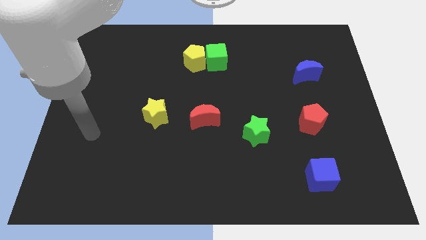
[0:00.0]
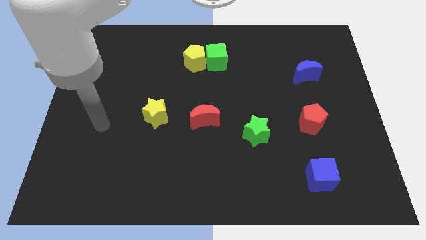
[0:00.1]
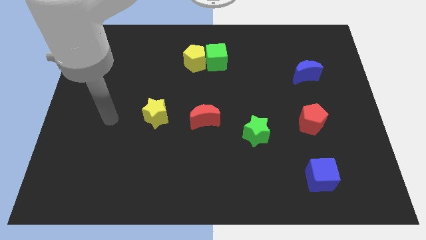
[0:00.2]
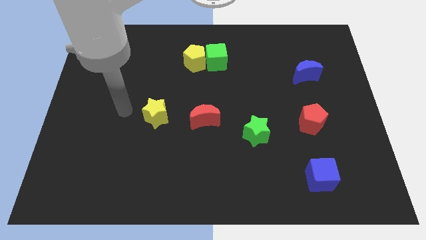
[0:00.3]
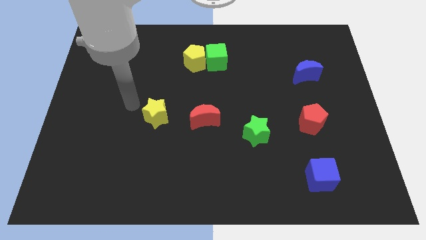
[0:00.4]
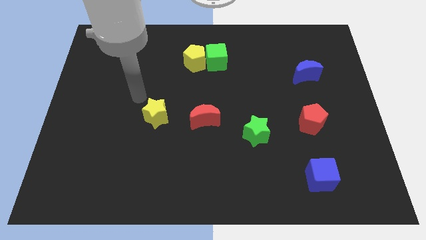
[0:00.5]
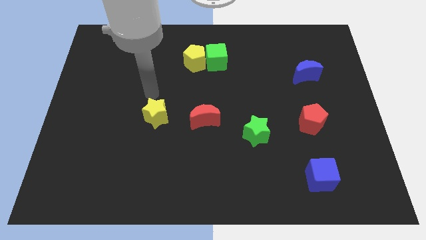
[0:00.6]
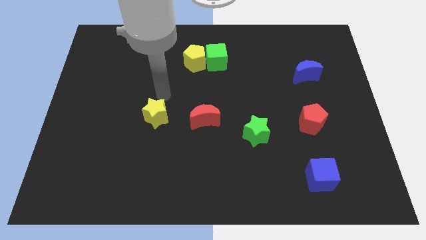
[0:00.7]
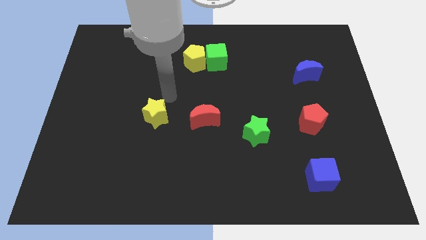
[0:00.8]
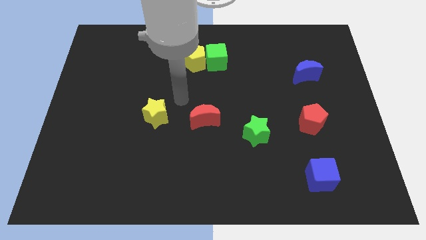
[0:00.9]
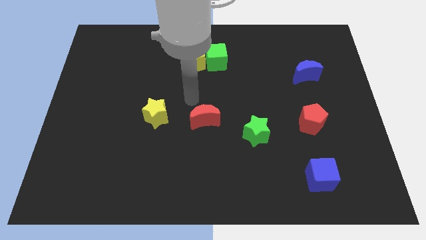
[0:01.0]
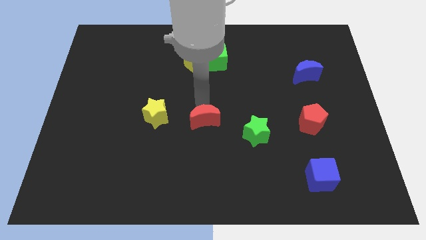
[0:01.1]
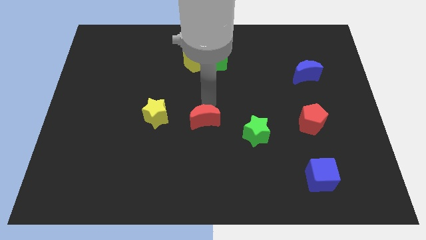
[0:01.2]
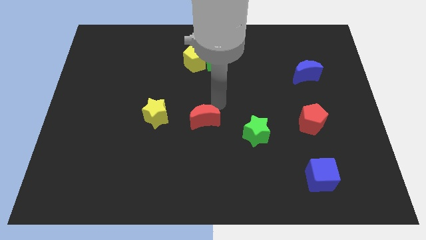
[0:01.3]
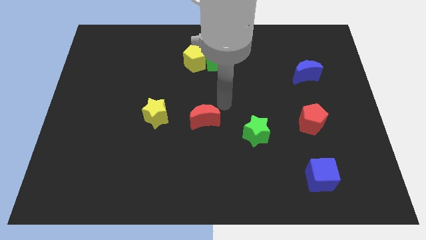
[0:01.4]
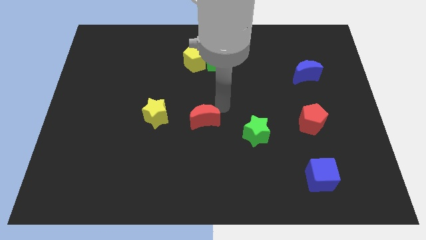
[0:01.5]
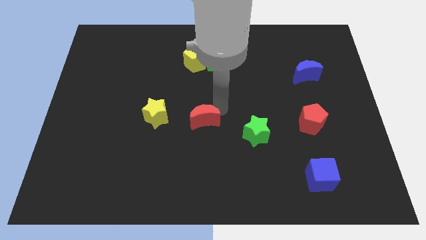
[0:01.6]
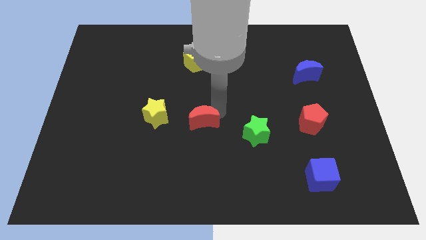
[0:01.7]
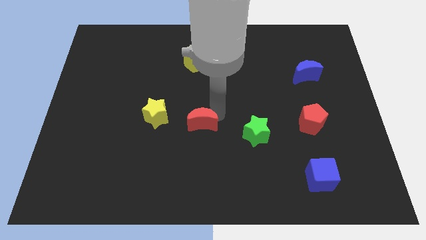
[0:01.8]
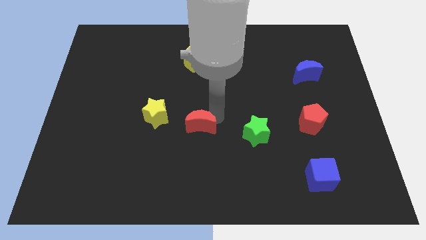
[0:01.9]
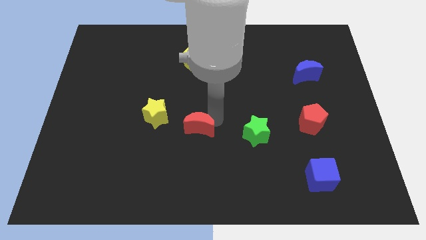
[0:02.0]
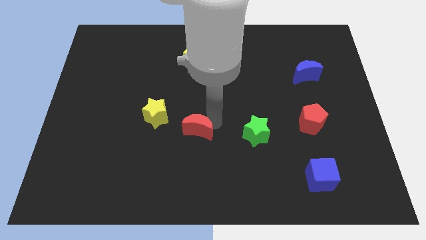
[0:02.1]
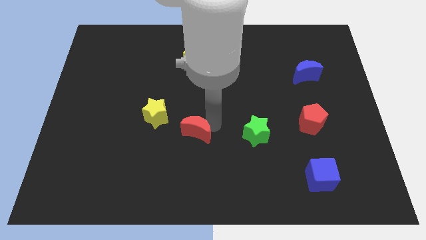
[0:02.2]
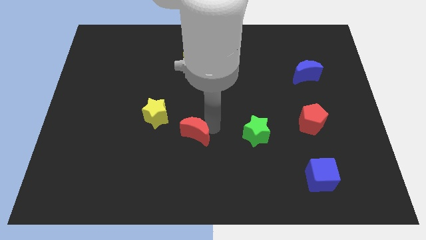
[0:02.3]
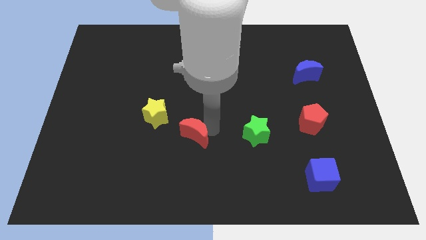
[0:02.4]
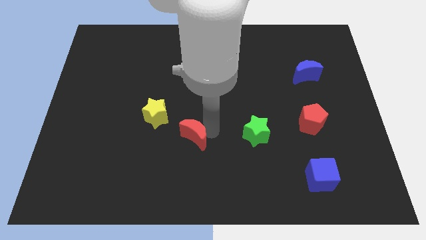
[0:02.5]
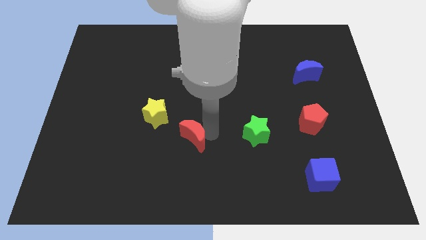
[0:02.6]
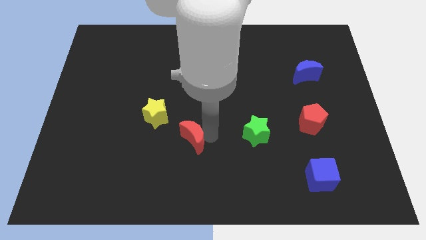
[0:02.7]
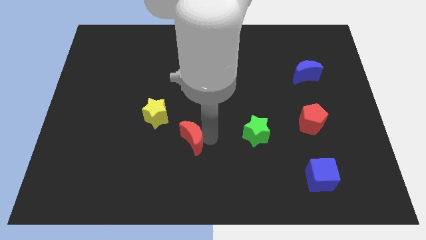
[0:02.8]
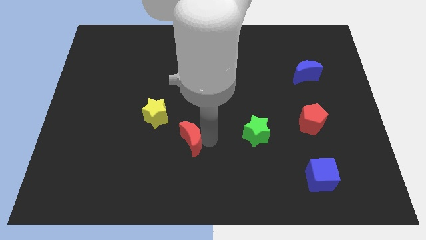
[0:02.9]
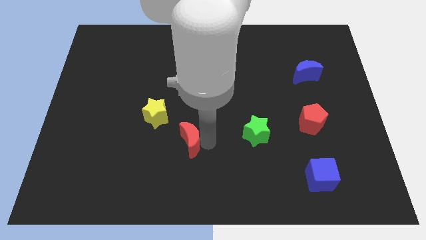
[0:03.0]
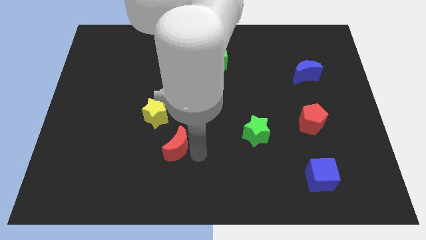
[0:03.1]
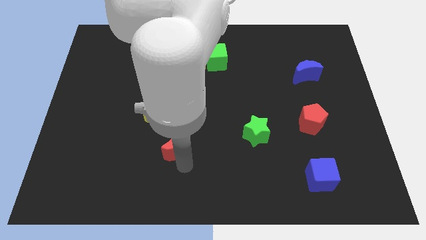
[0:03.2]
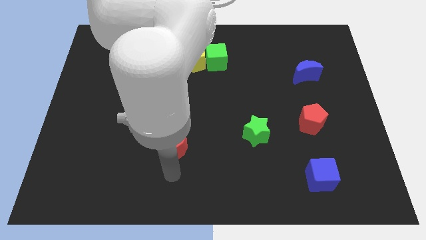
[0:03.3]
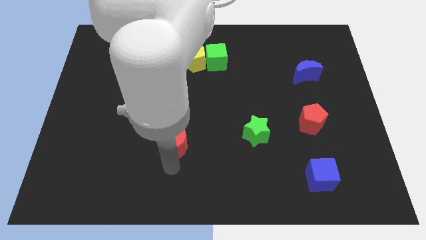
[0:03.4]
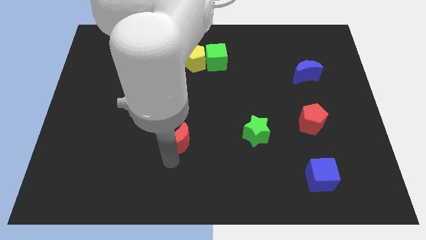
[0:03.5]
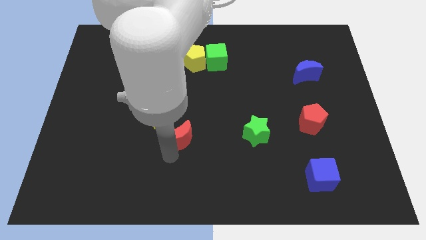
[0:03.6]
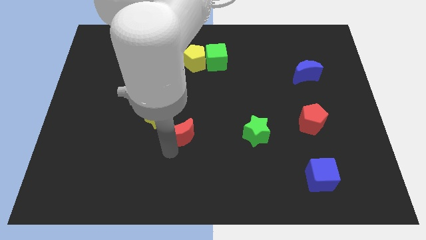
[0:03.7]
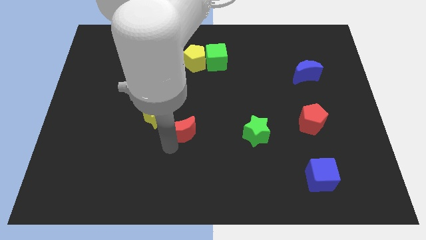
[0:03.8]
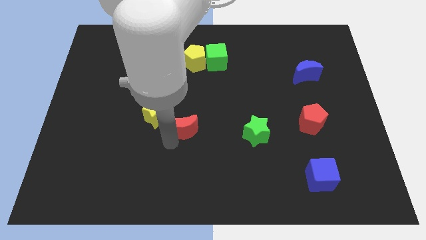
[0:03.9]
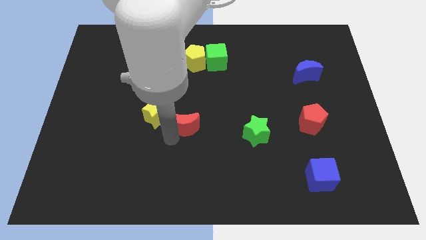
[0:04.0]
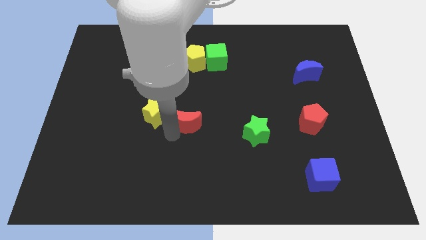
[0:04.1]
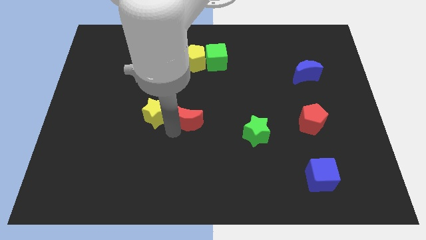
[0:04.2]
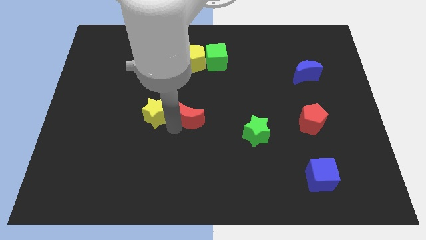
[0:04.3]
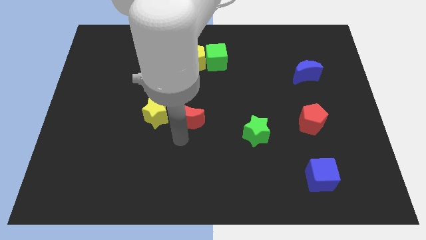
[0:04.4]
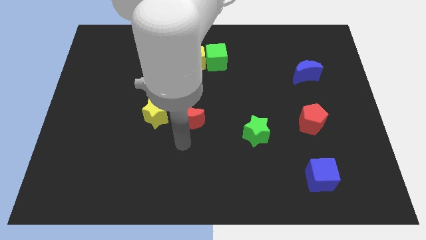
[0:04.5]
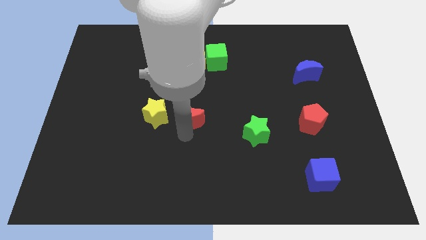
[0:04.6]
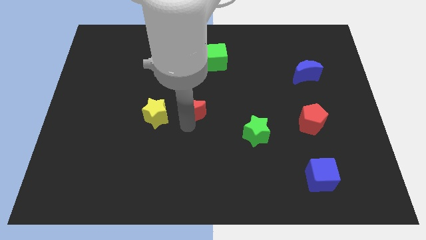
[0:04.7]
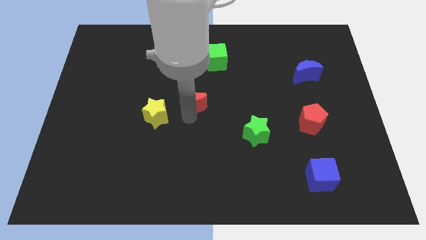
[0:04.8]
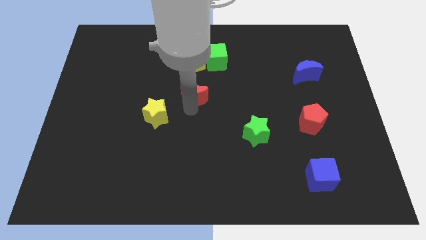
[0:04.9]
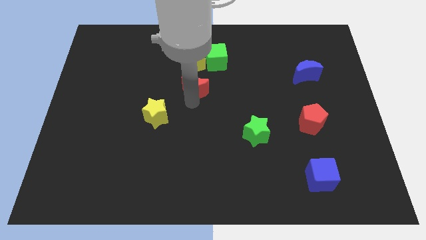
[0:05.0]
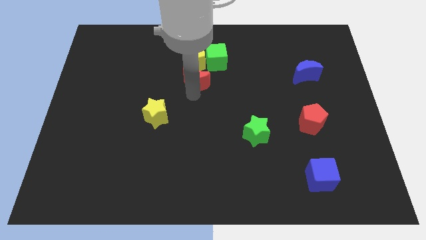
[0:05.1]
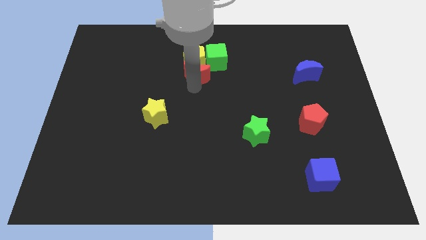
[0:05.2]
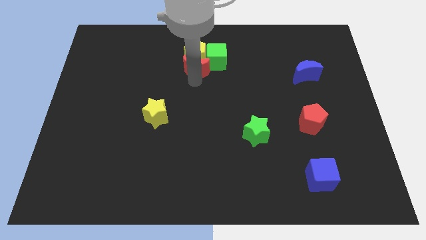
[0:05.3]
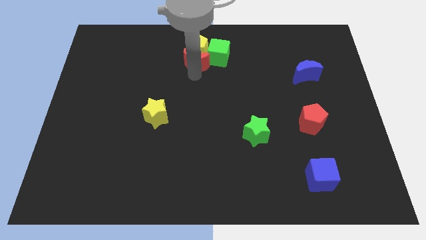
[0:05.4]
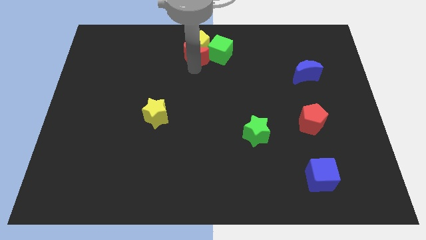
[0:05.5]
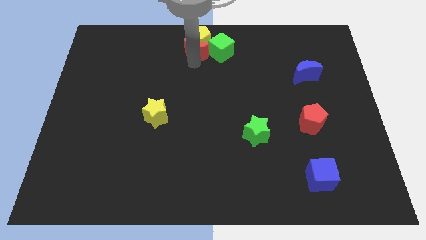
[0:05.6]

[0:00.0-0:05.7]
move the red moon to the top side

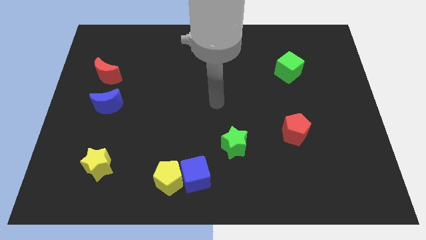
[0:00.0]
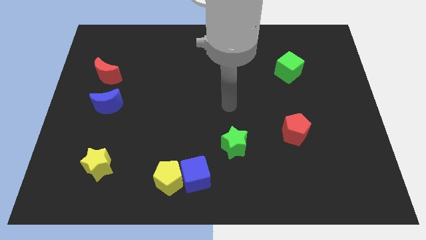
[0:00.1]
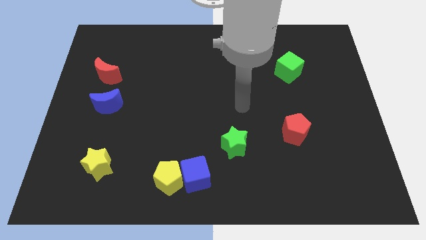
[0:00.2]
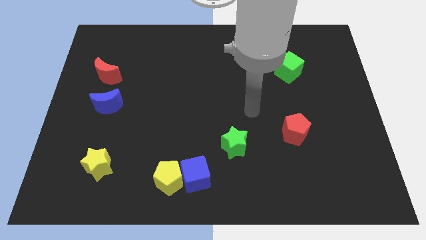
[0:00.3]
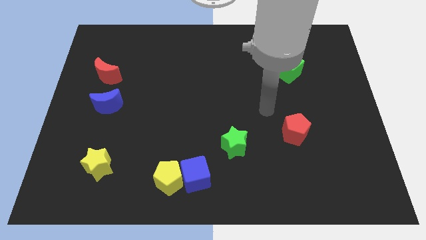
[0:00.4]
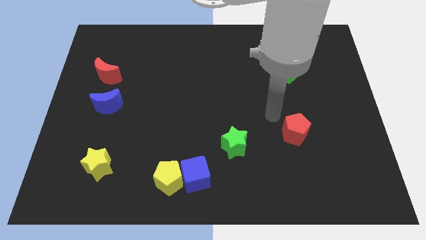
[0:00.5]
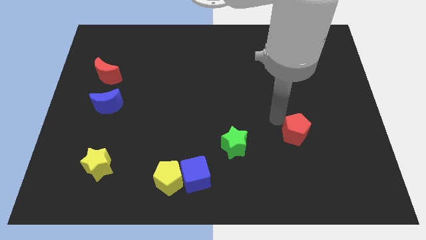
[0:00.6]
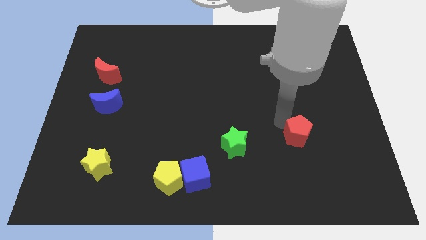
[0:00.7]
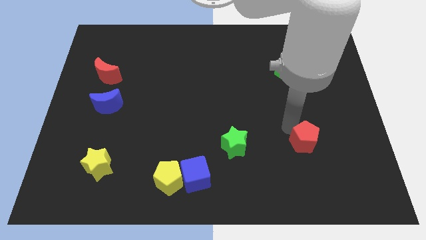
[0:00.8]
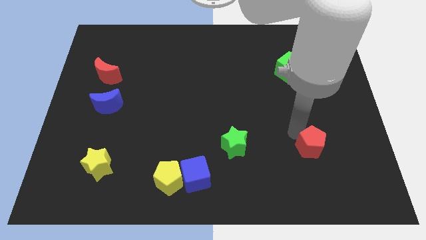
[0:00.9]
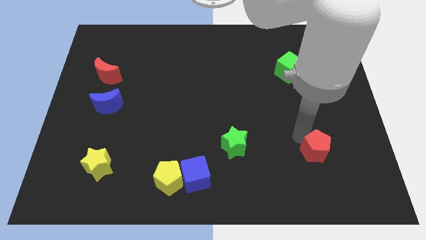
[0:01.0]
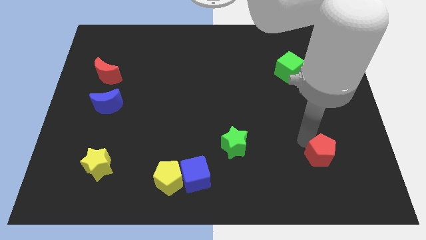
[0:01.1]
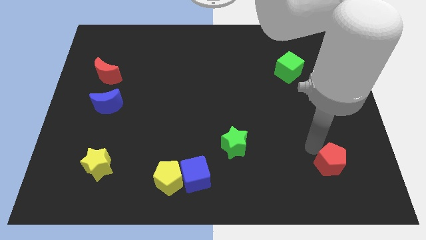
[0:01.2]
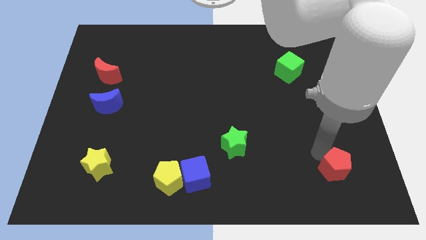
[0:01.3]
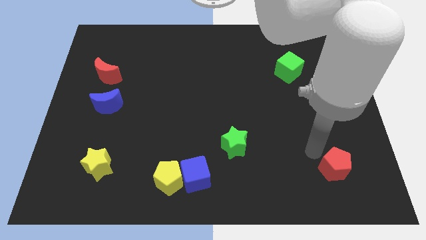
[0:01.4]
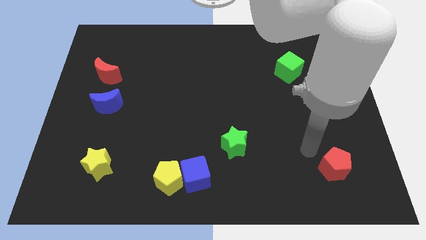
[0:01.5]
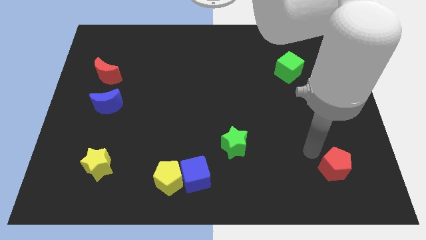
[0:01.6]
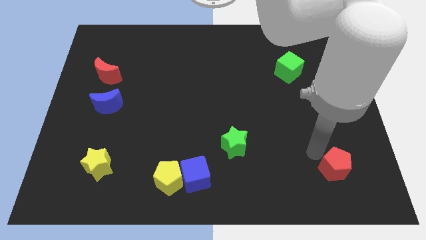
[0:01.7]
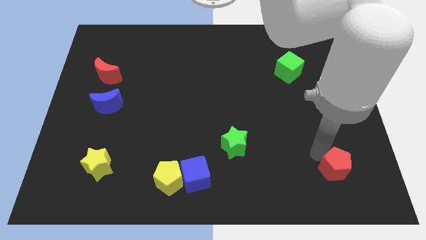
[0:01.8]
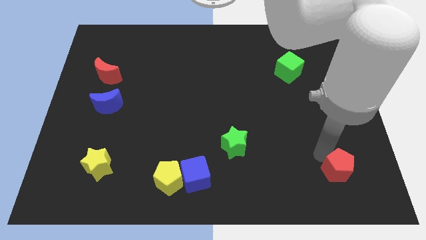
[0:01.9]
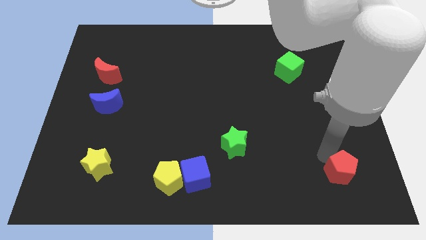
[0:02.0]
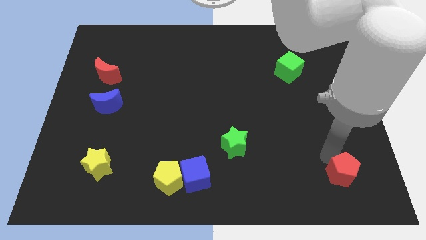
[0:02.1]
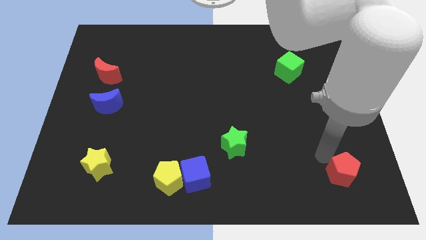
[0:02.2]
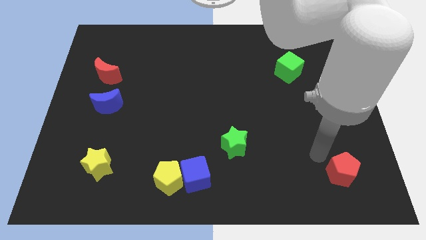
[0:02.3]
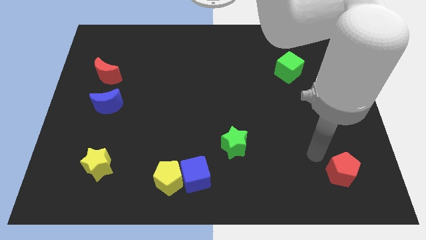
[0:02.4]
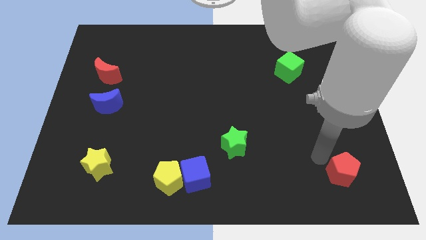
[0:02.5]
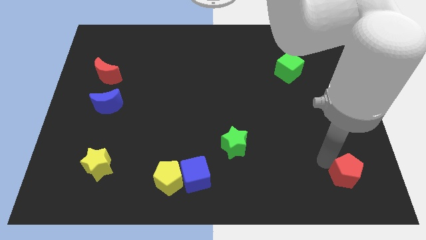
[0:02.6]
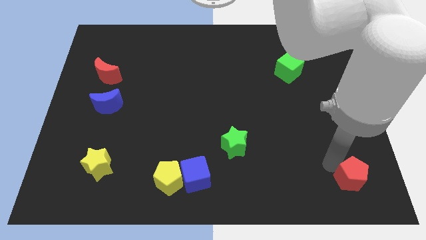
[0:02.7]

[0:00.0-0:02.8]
put the red pentagon to the bottom right of the board
